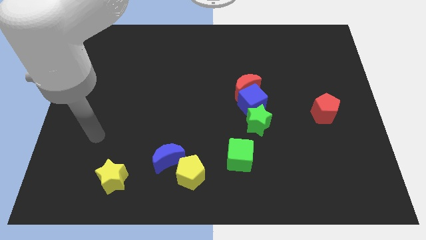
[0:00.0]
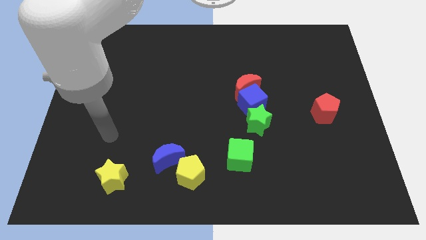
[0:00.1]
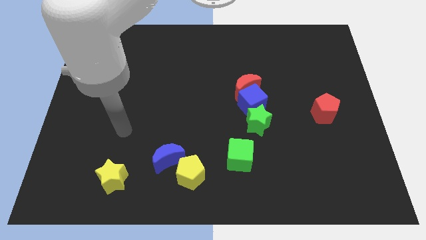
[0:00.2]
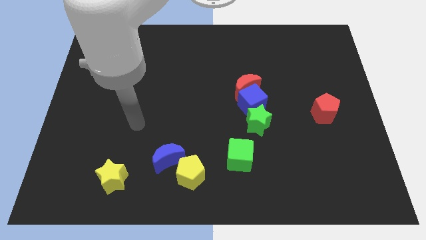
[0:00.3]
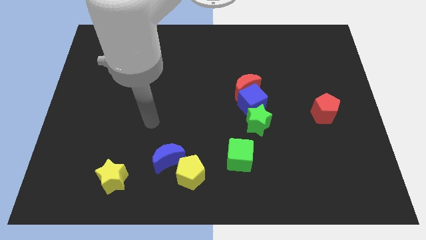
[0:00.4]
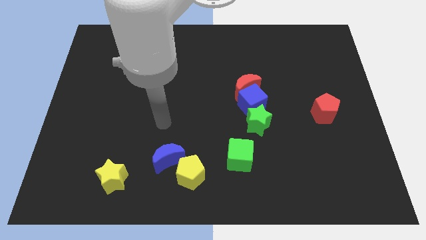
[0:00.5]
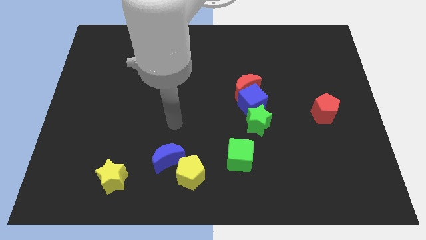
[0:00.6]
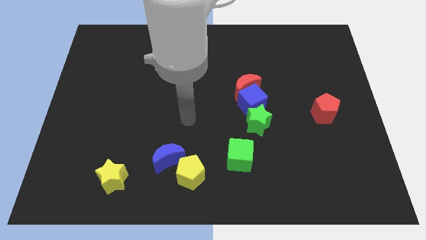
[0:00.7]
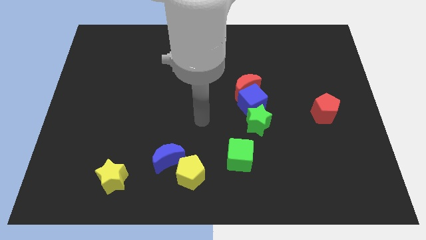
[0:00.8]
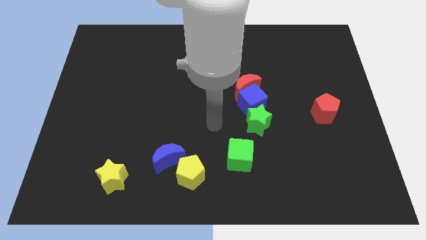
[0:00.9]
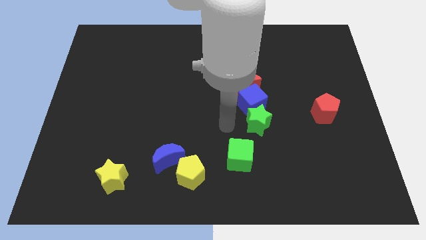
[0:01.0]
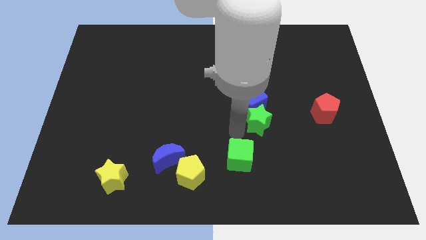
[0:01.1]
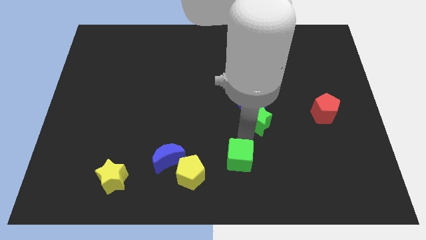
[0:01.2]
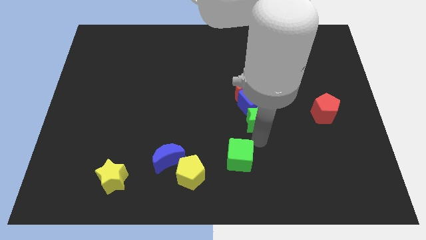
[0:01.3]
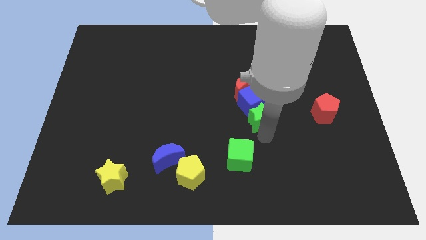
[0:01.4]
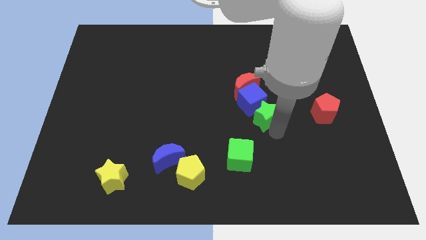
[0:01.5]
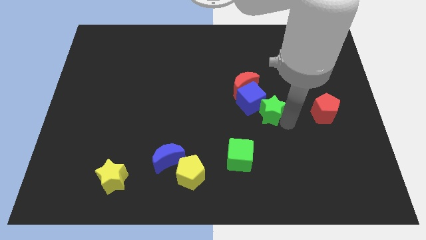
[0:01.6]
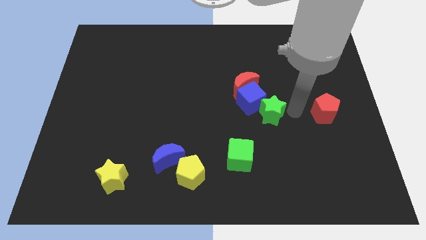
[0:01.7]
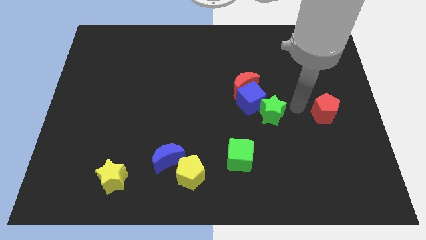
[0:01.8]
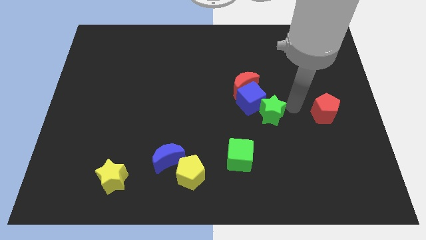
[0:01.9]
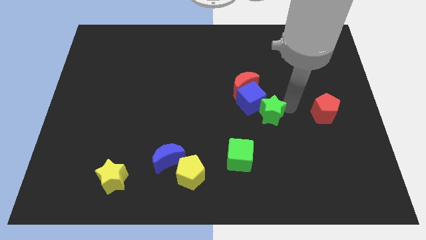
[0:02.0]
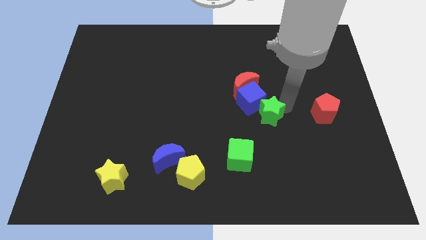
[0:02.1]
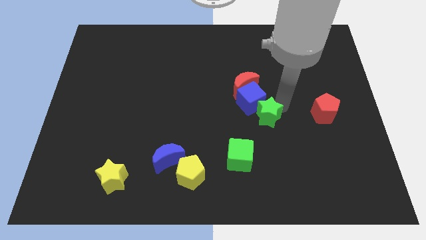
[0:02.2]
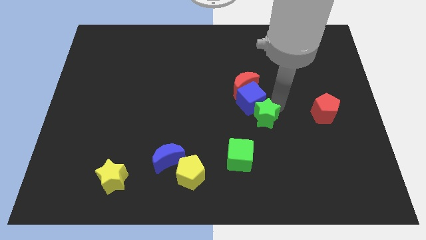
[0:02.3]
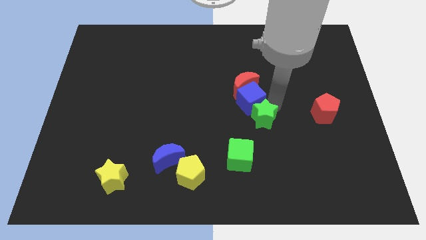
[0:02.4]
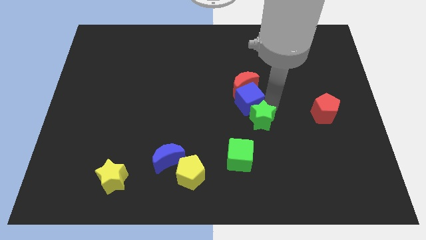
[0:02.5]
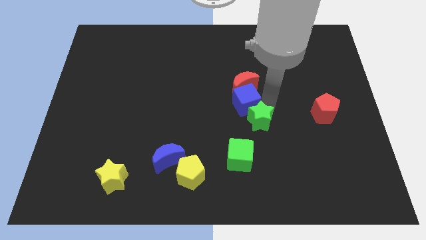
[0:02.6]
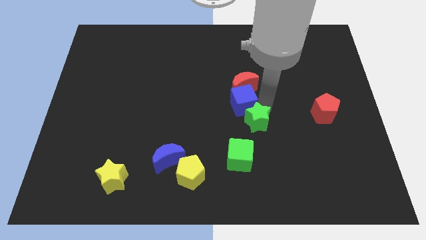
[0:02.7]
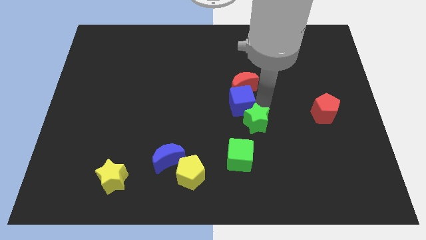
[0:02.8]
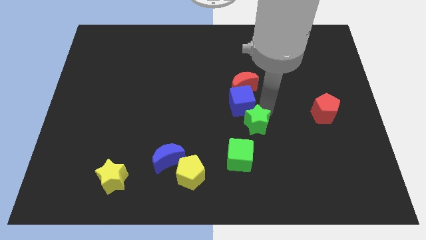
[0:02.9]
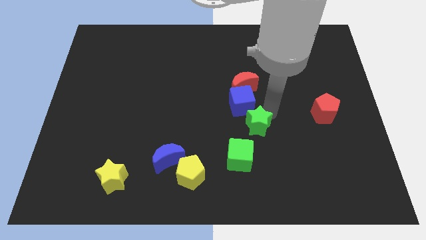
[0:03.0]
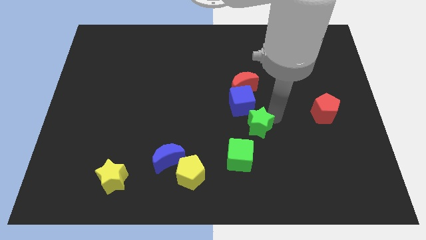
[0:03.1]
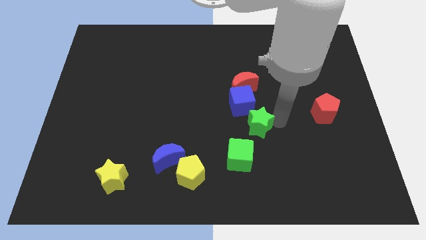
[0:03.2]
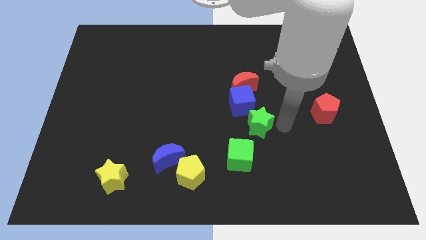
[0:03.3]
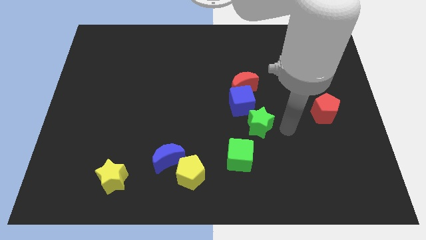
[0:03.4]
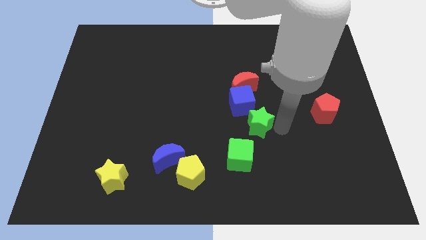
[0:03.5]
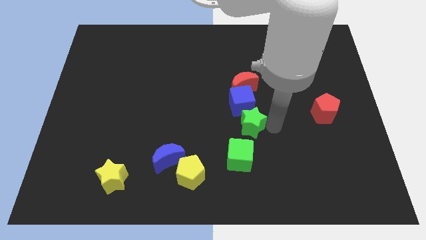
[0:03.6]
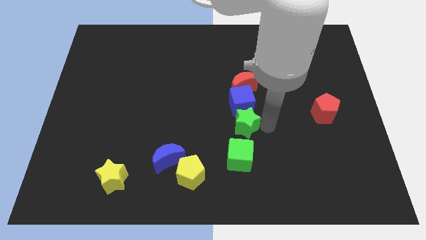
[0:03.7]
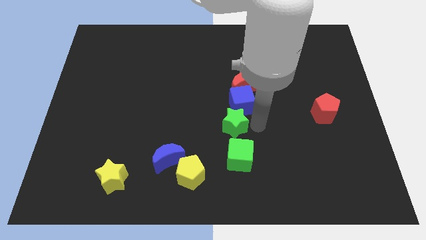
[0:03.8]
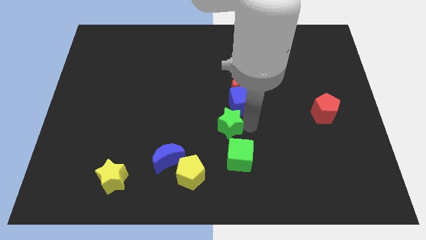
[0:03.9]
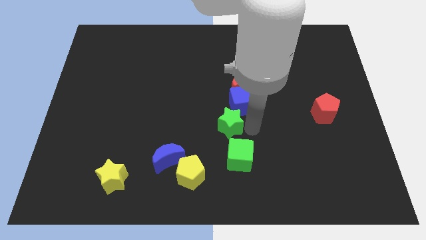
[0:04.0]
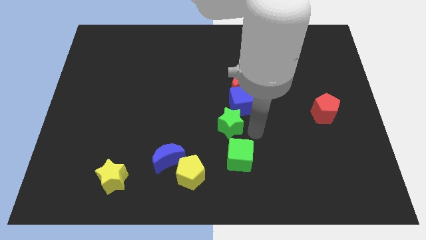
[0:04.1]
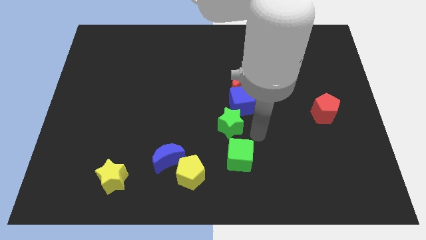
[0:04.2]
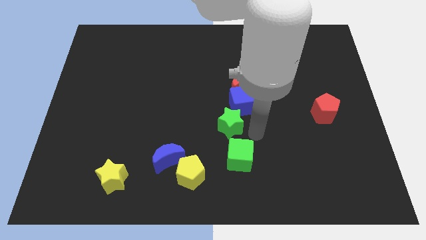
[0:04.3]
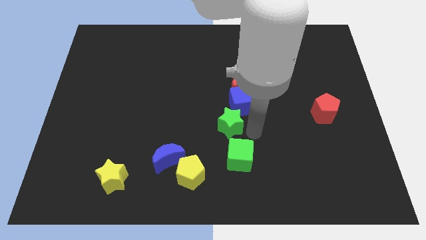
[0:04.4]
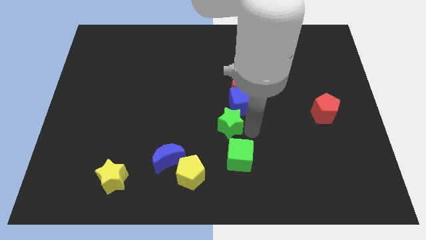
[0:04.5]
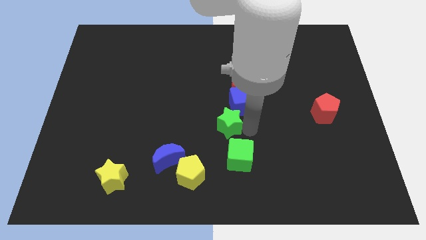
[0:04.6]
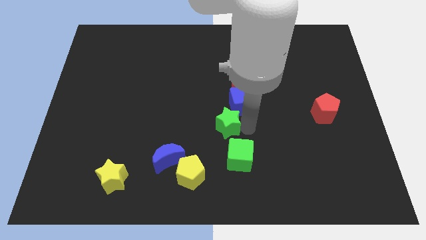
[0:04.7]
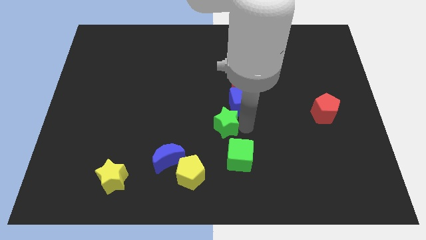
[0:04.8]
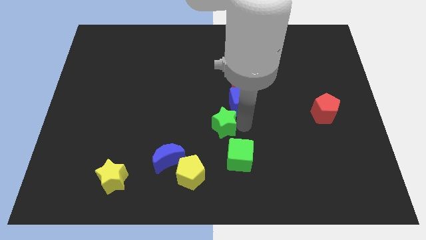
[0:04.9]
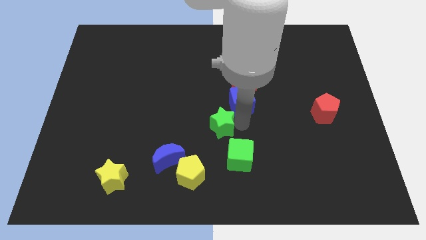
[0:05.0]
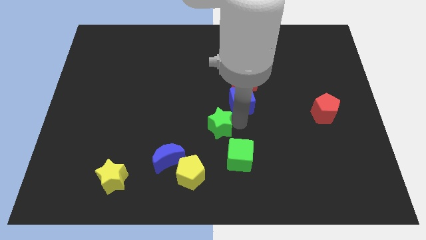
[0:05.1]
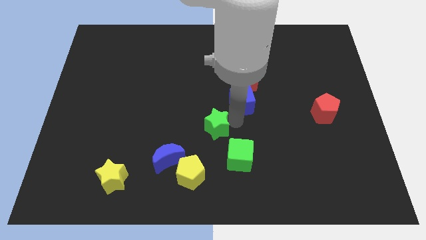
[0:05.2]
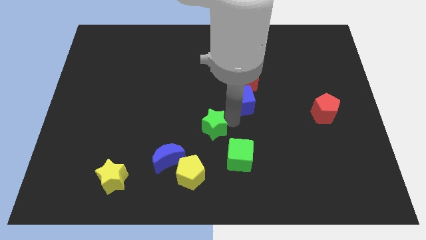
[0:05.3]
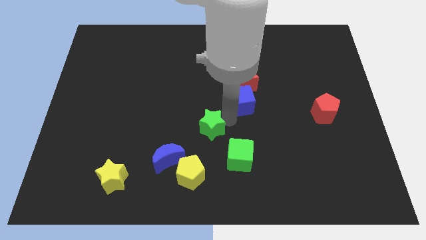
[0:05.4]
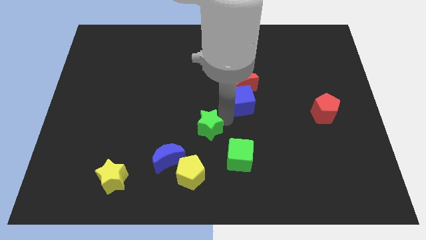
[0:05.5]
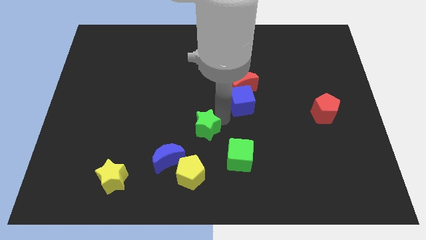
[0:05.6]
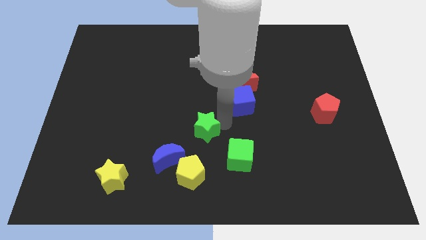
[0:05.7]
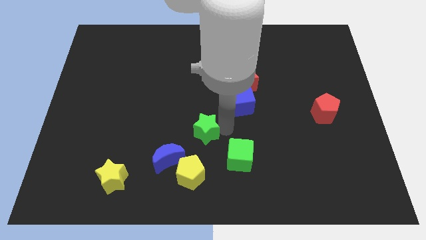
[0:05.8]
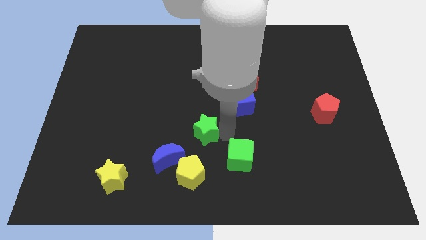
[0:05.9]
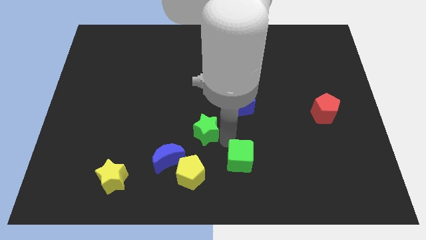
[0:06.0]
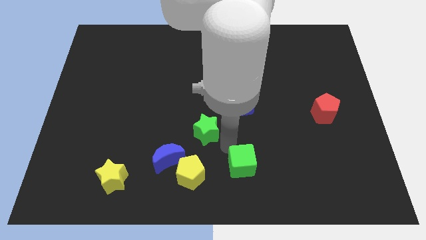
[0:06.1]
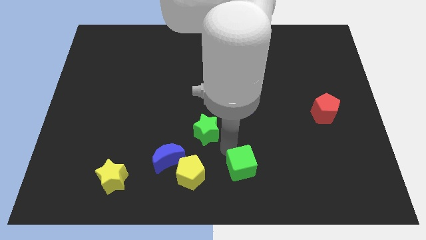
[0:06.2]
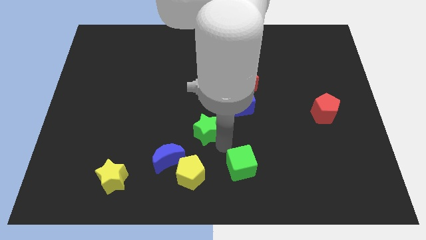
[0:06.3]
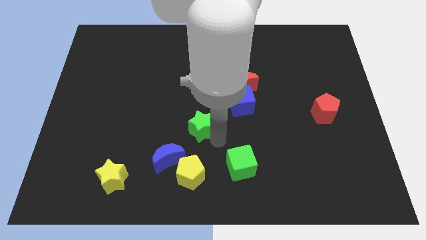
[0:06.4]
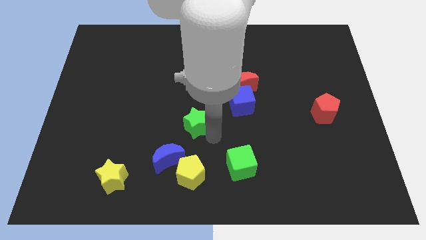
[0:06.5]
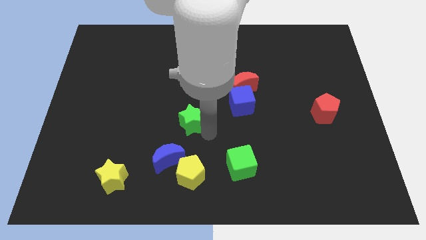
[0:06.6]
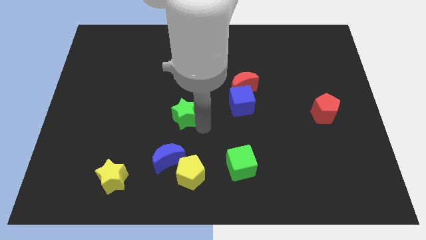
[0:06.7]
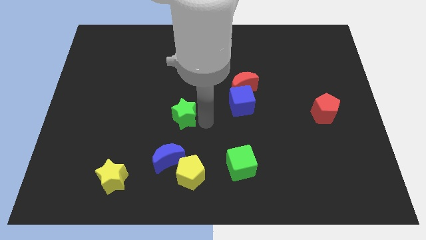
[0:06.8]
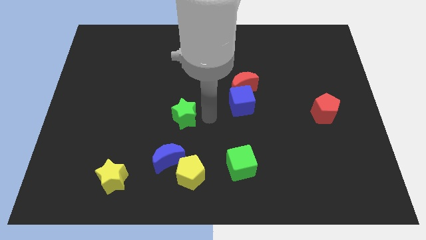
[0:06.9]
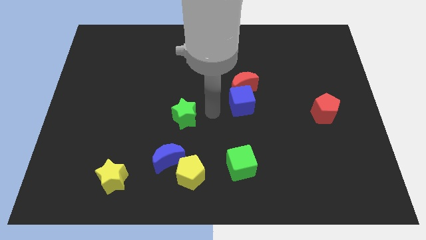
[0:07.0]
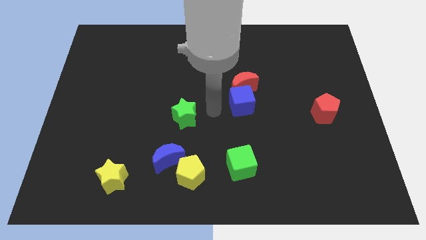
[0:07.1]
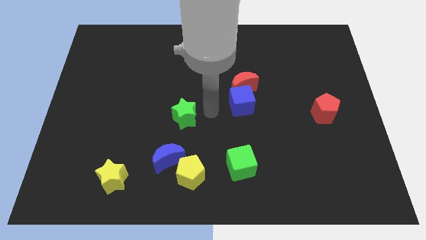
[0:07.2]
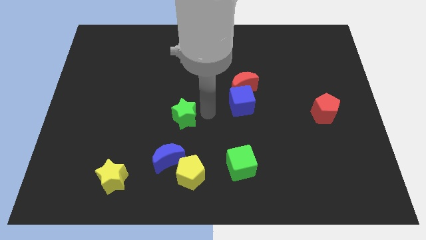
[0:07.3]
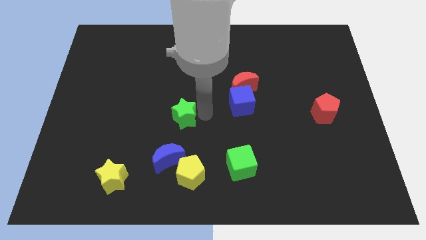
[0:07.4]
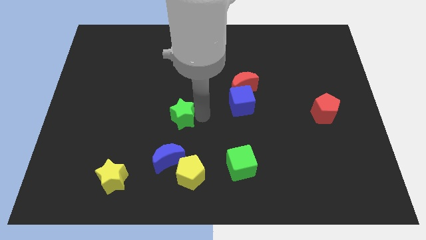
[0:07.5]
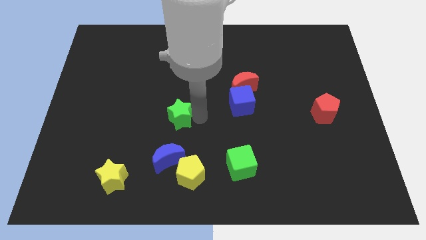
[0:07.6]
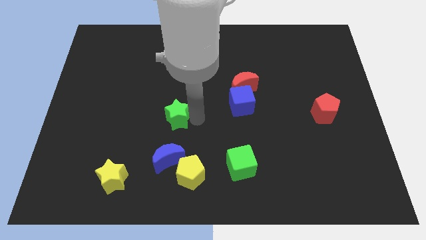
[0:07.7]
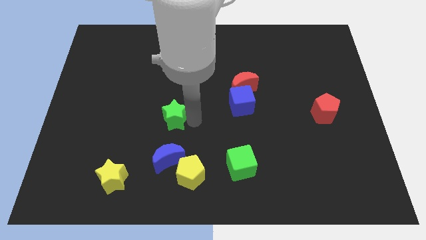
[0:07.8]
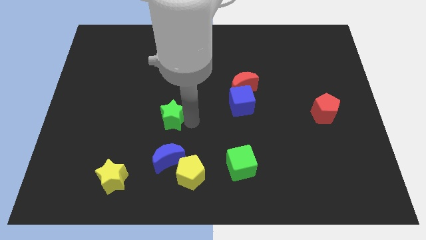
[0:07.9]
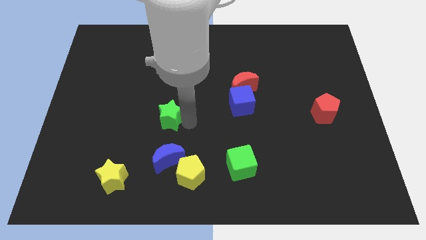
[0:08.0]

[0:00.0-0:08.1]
slide the green star left
